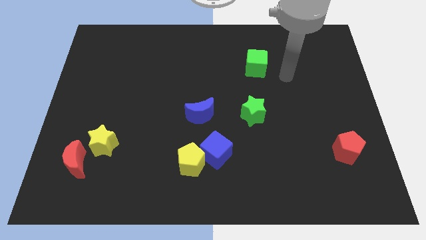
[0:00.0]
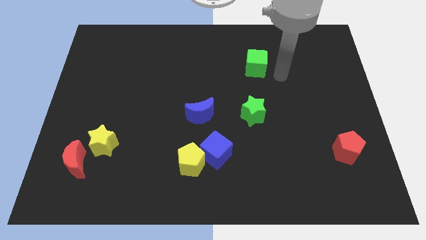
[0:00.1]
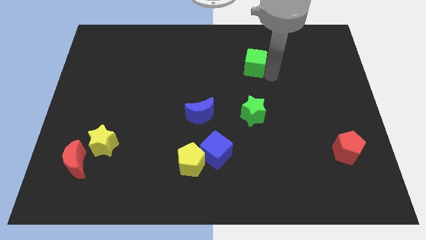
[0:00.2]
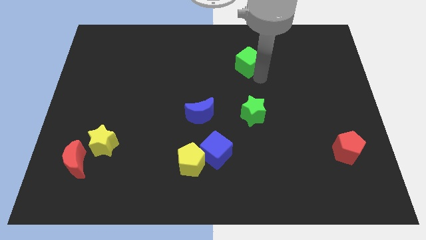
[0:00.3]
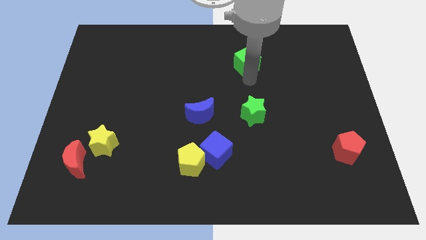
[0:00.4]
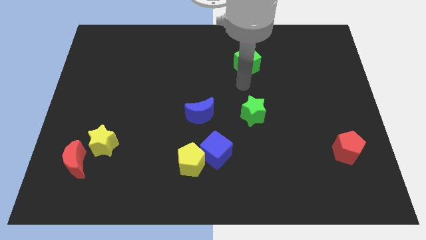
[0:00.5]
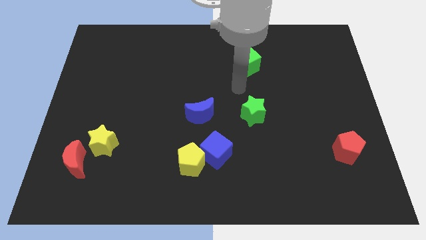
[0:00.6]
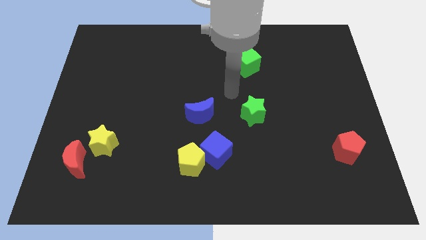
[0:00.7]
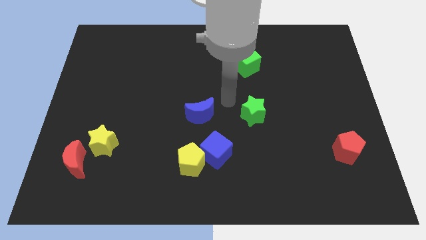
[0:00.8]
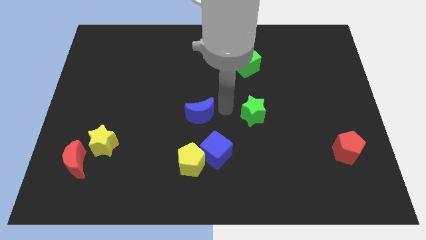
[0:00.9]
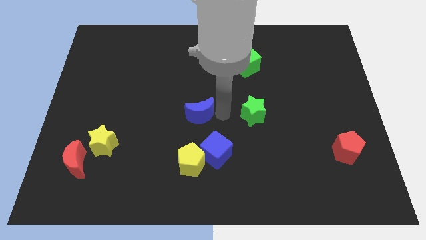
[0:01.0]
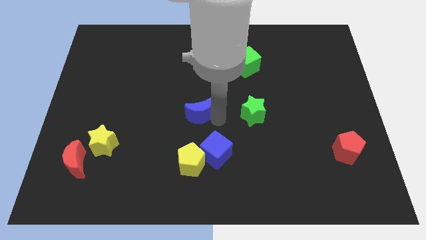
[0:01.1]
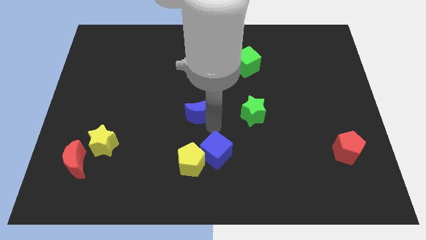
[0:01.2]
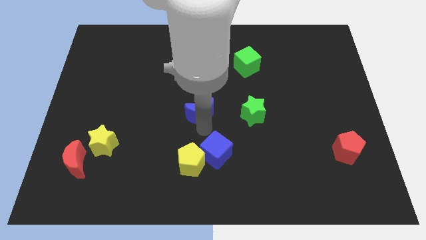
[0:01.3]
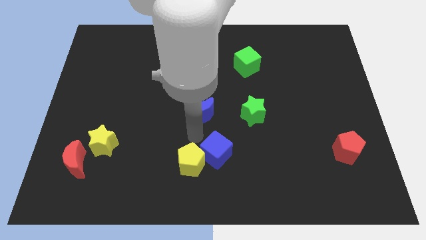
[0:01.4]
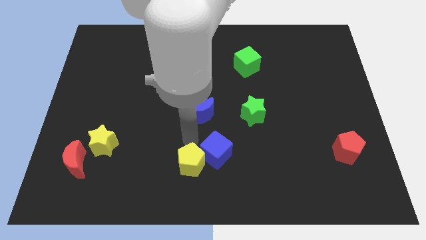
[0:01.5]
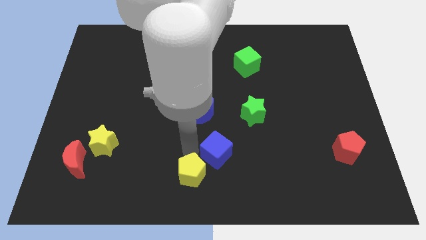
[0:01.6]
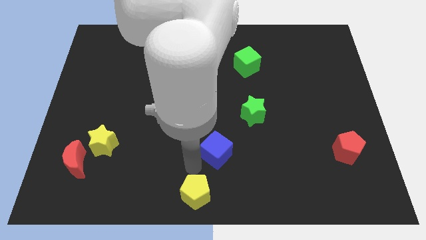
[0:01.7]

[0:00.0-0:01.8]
separate the blue cube from the yellow pentagon

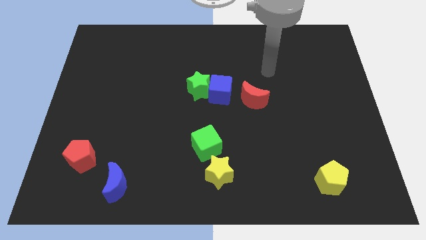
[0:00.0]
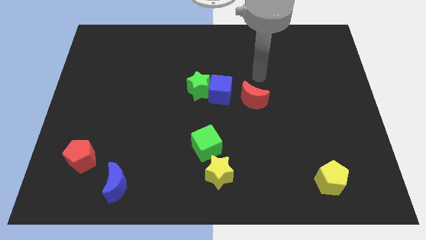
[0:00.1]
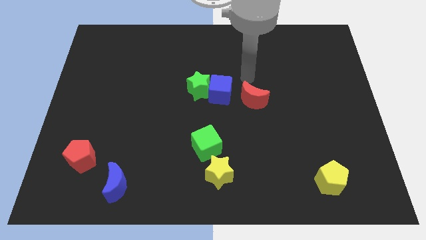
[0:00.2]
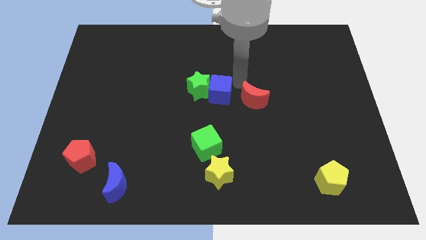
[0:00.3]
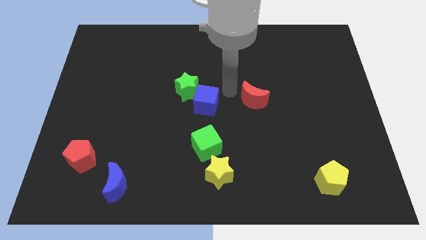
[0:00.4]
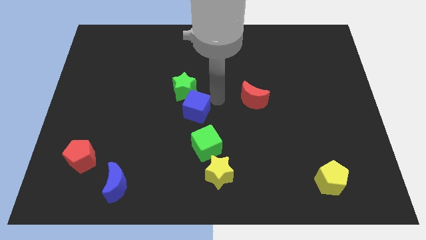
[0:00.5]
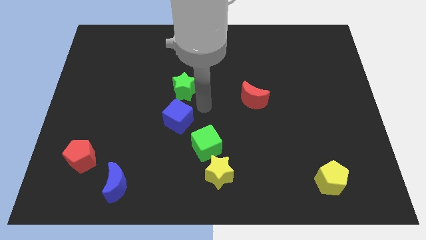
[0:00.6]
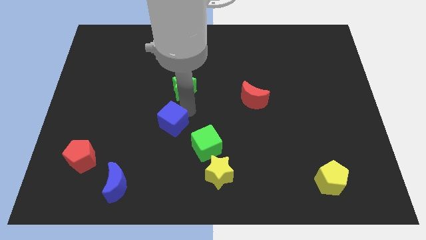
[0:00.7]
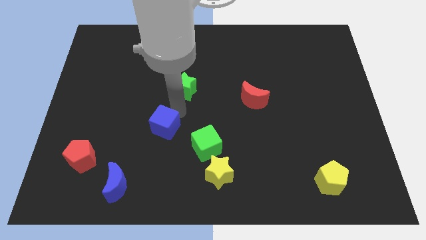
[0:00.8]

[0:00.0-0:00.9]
separate the green star from the blue cube

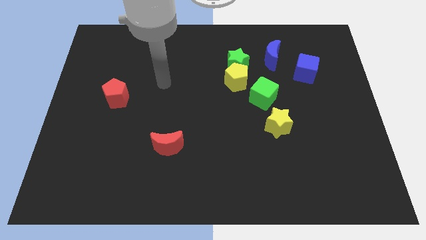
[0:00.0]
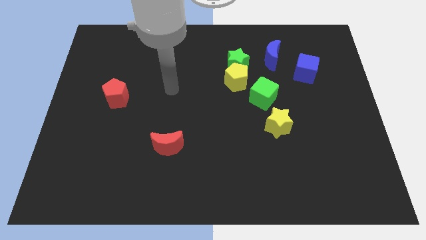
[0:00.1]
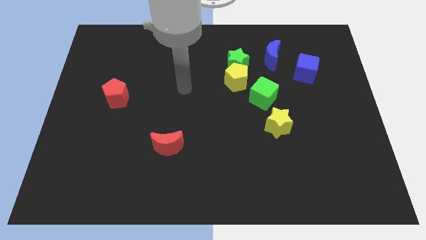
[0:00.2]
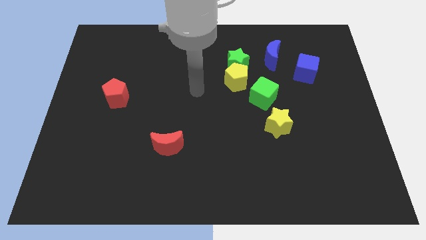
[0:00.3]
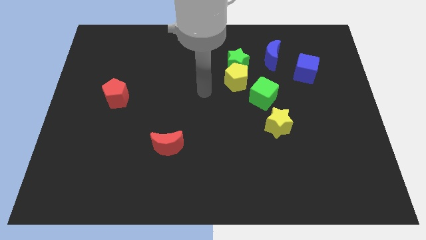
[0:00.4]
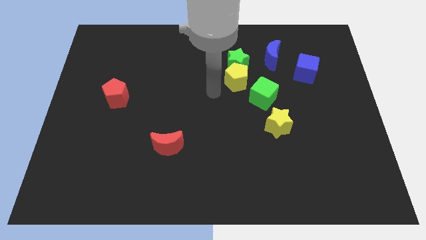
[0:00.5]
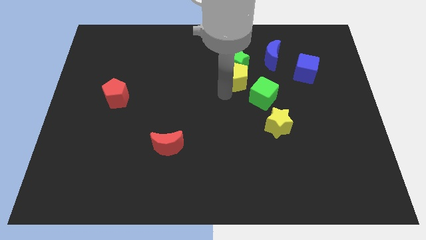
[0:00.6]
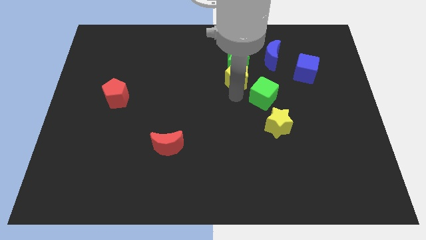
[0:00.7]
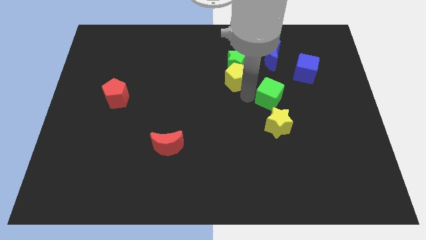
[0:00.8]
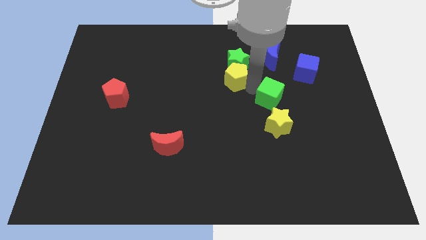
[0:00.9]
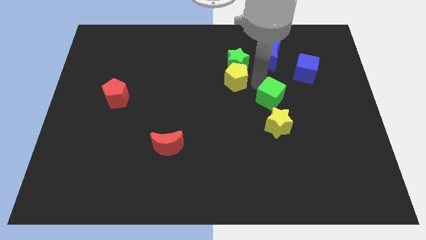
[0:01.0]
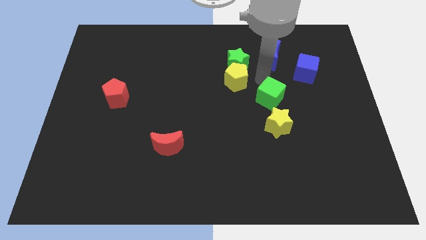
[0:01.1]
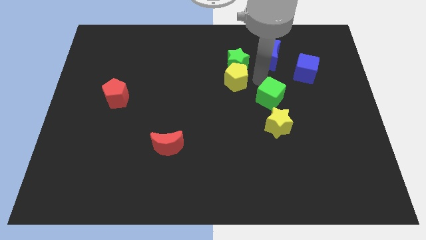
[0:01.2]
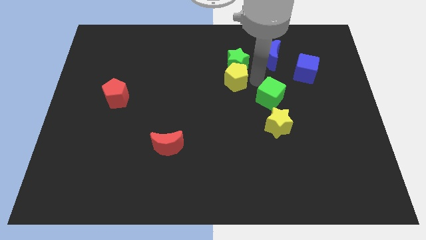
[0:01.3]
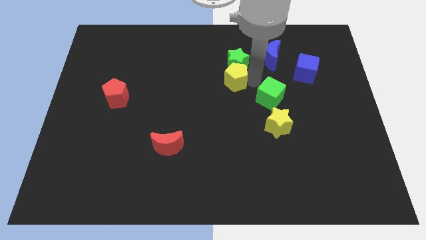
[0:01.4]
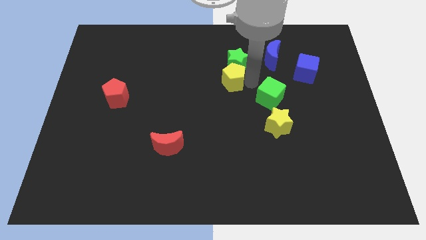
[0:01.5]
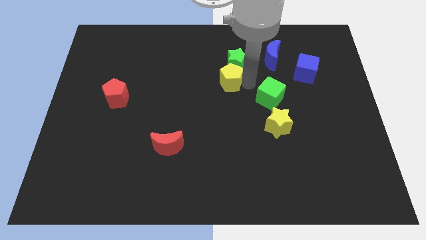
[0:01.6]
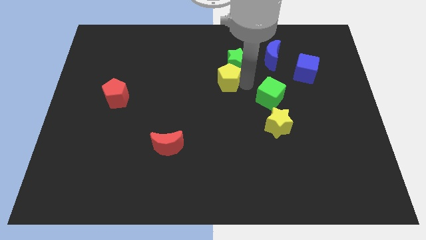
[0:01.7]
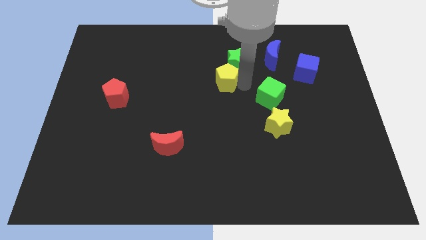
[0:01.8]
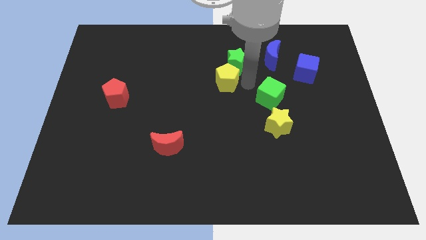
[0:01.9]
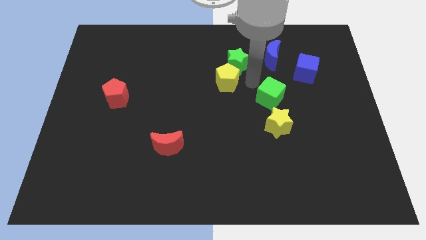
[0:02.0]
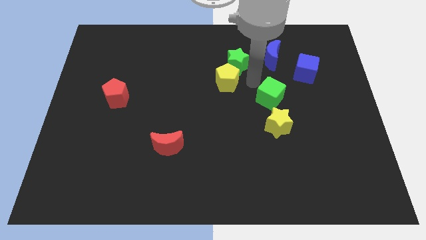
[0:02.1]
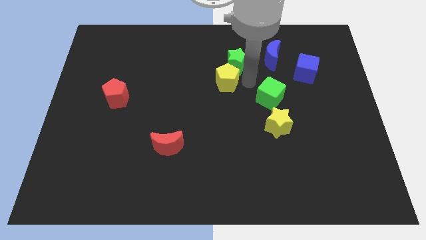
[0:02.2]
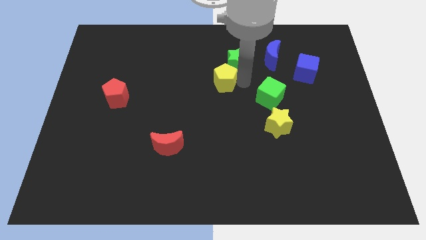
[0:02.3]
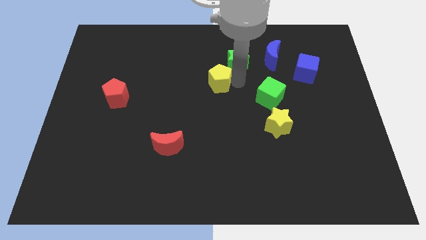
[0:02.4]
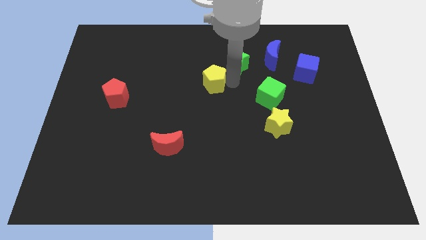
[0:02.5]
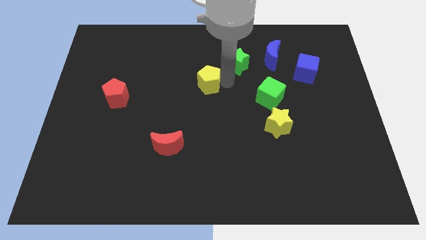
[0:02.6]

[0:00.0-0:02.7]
separate the yellow pentagon from the green star and green cube

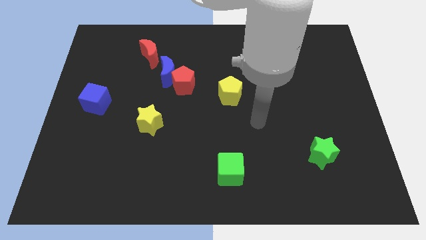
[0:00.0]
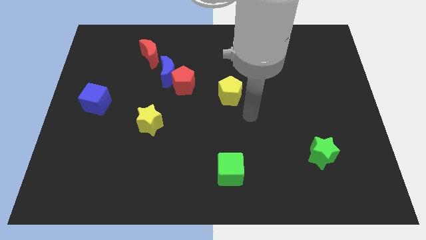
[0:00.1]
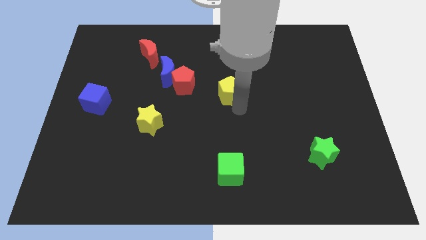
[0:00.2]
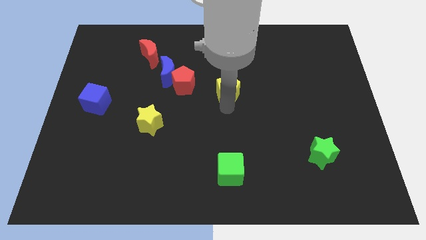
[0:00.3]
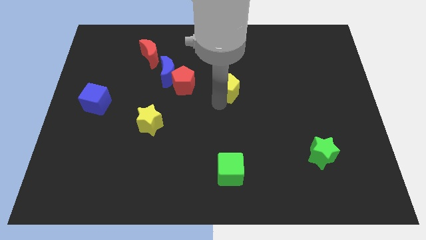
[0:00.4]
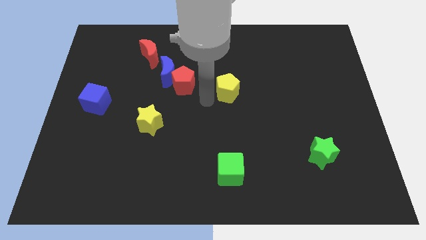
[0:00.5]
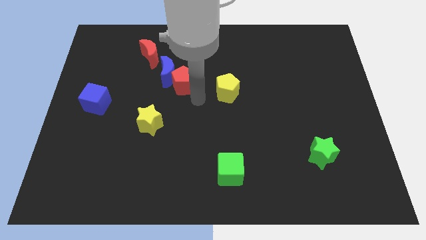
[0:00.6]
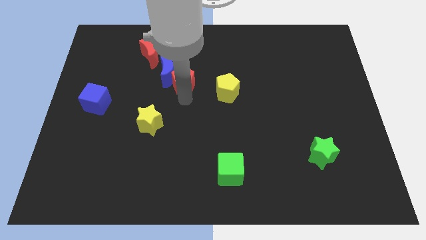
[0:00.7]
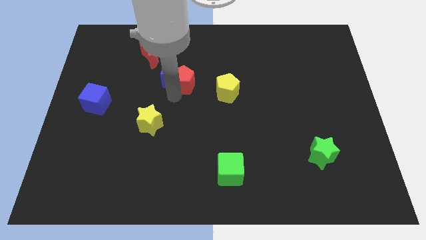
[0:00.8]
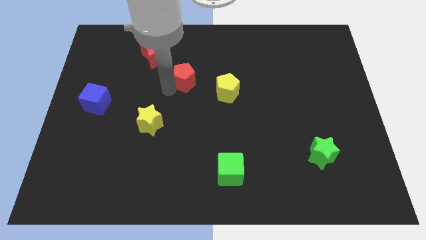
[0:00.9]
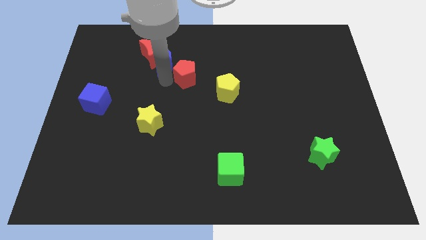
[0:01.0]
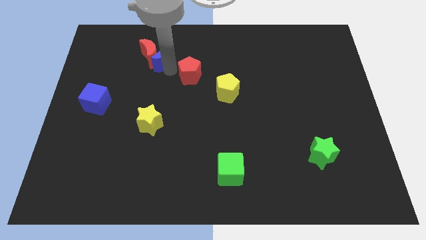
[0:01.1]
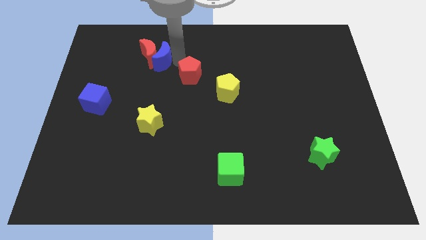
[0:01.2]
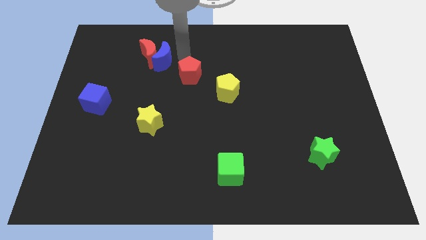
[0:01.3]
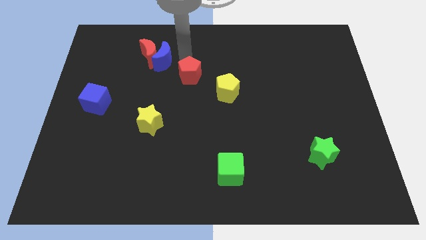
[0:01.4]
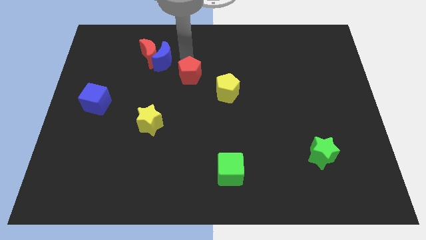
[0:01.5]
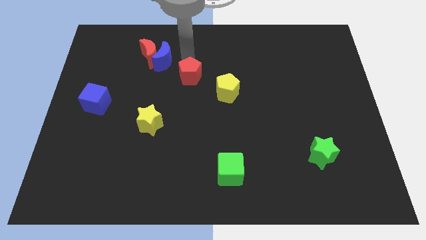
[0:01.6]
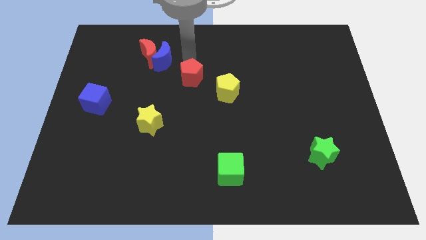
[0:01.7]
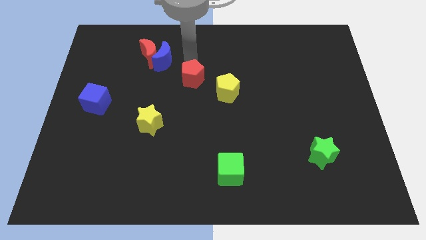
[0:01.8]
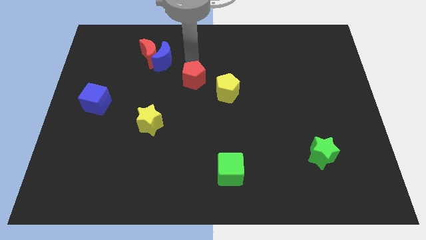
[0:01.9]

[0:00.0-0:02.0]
move the red pentagon away from the blue moon

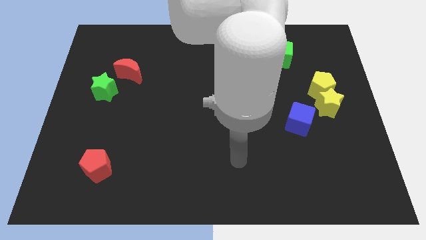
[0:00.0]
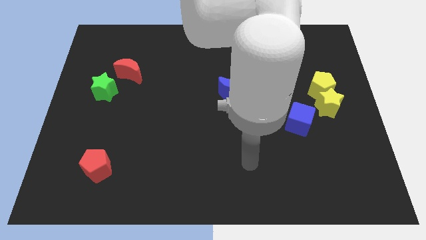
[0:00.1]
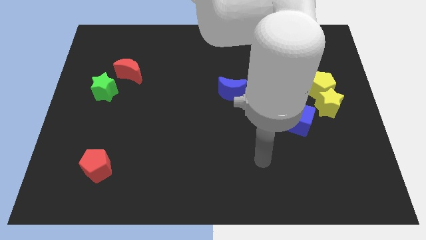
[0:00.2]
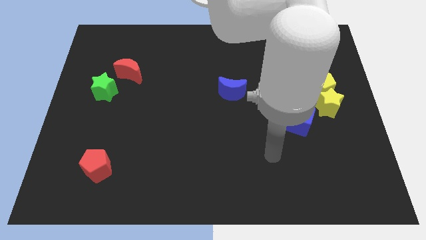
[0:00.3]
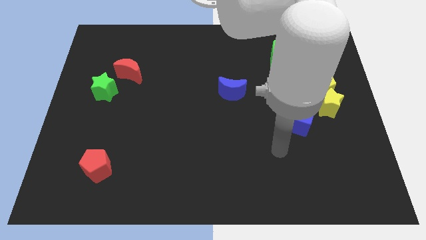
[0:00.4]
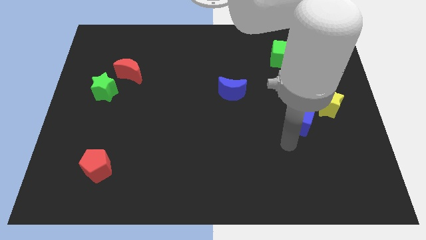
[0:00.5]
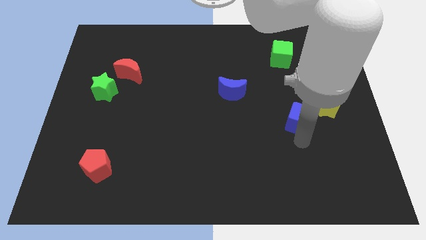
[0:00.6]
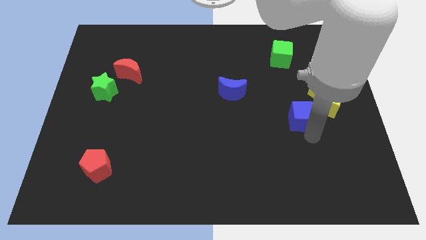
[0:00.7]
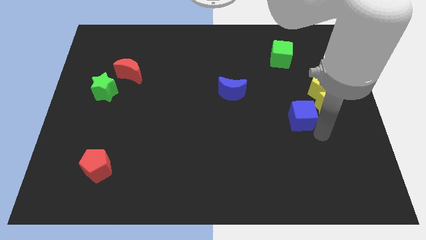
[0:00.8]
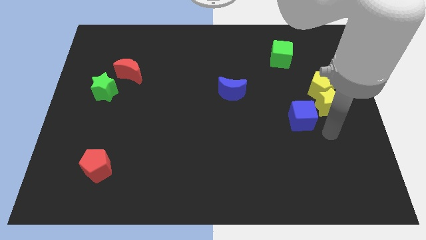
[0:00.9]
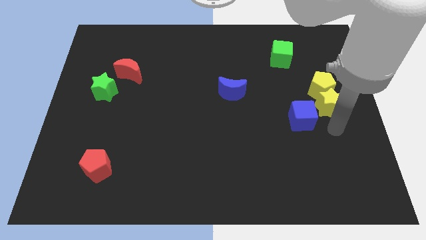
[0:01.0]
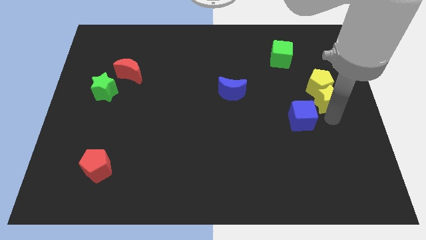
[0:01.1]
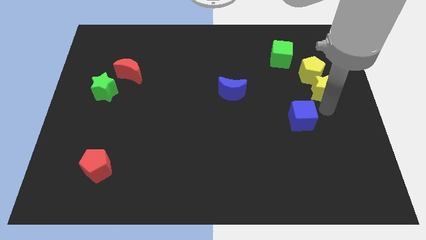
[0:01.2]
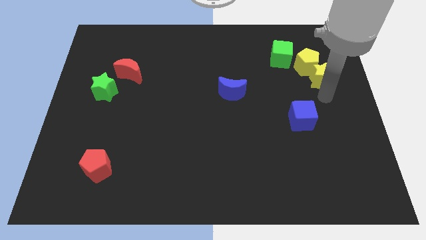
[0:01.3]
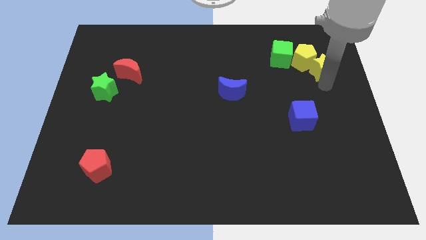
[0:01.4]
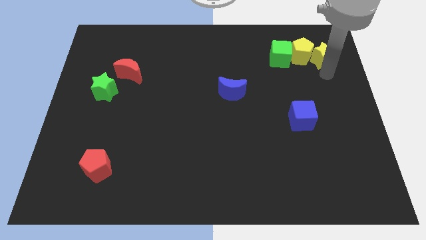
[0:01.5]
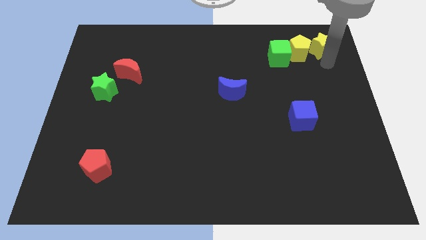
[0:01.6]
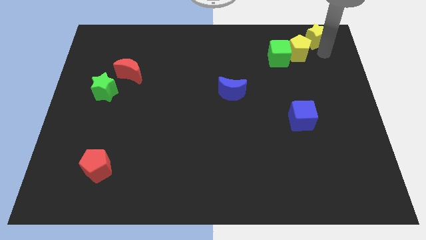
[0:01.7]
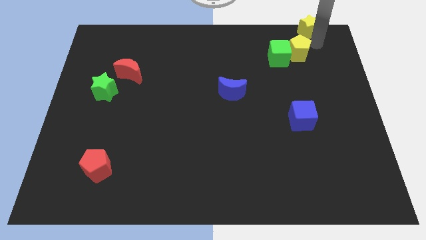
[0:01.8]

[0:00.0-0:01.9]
pull the yellow pentagon apart from the yellow star
